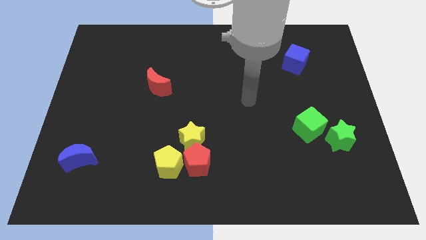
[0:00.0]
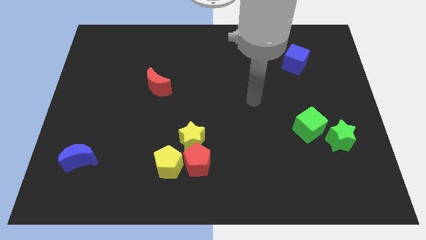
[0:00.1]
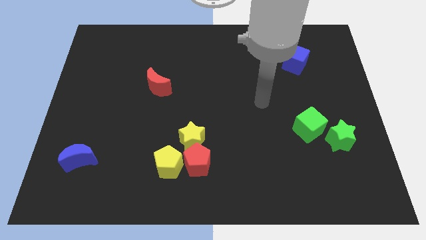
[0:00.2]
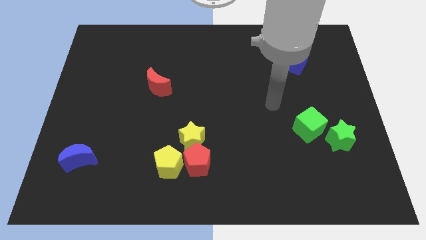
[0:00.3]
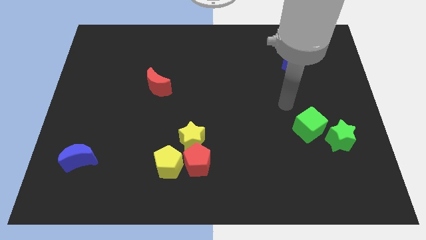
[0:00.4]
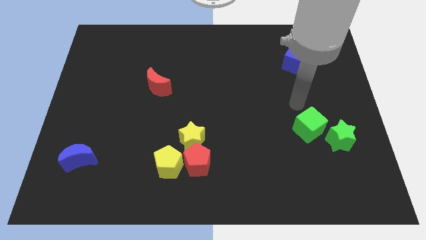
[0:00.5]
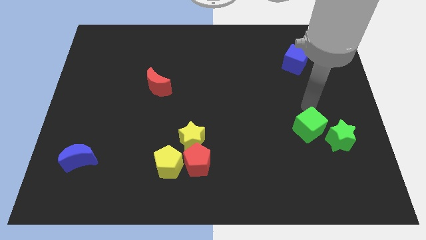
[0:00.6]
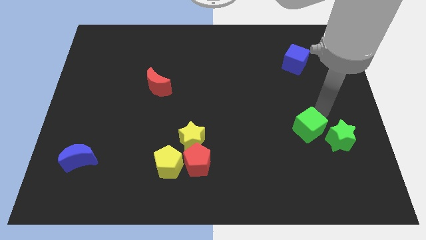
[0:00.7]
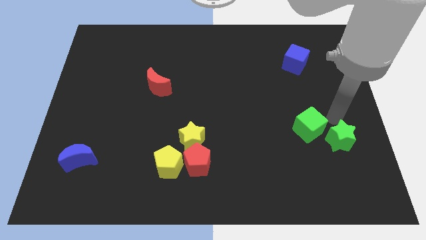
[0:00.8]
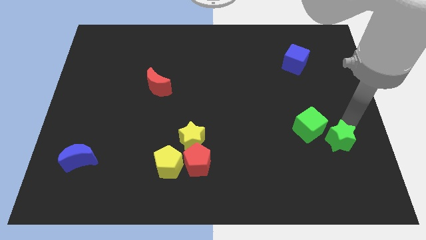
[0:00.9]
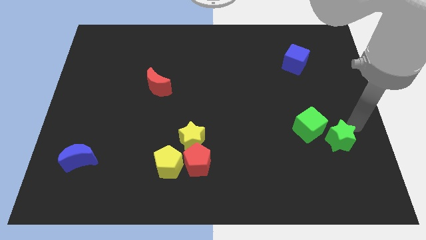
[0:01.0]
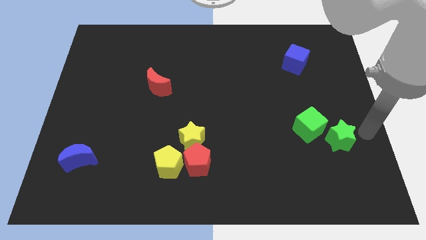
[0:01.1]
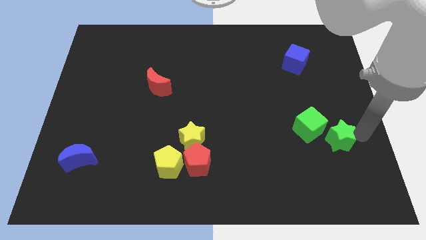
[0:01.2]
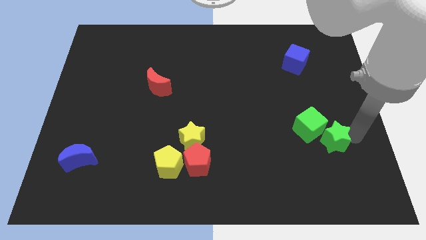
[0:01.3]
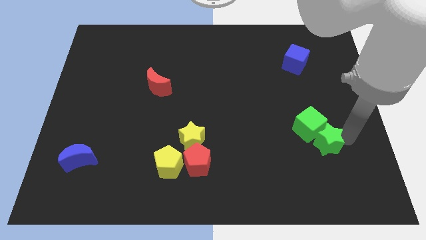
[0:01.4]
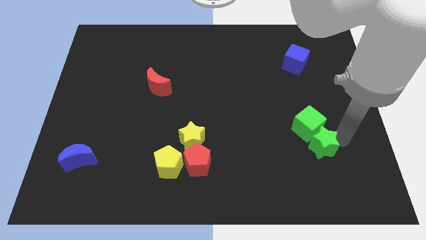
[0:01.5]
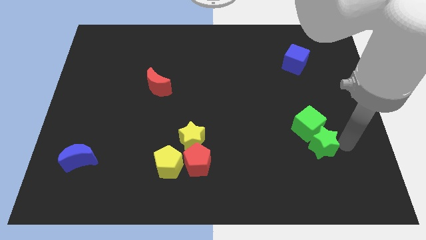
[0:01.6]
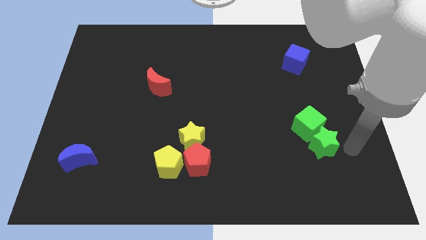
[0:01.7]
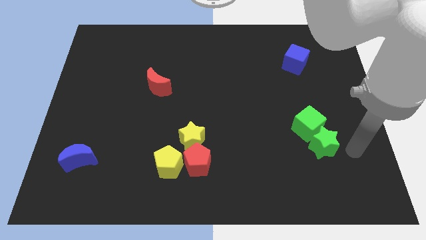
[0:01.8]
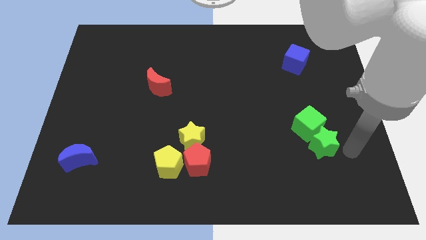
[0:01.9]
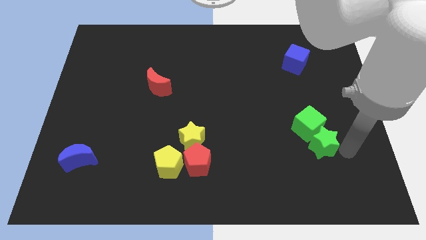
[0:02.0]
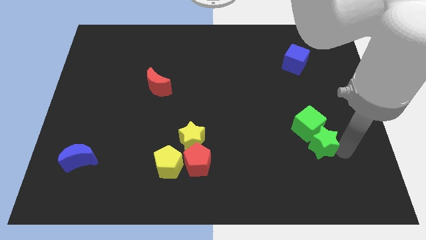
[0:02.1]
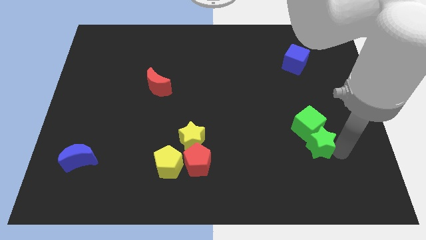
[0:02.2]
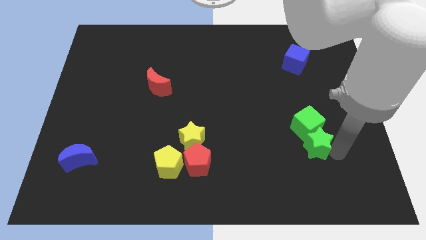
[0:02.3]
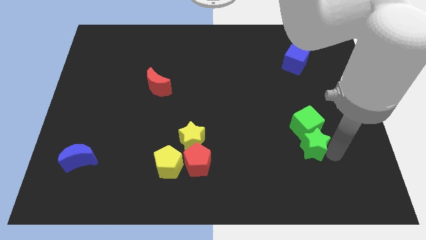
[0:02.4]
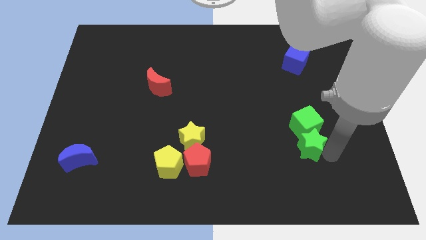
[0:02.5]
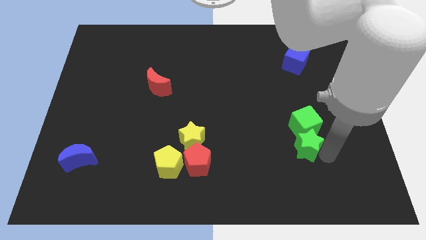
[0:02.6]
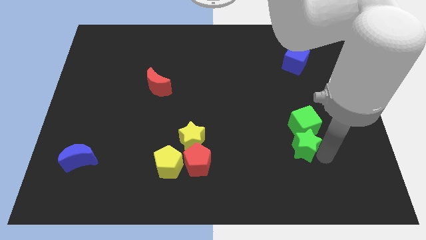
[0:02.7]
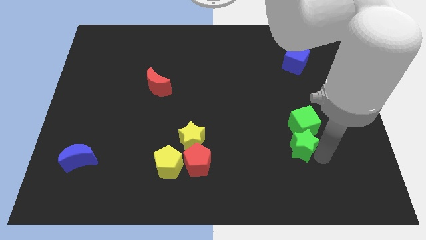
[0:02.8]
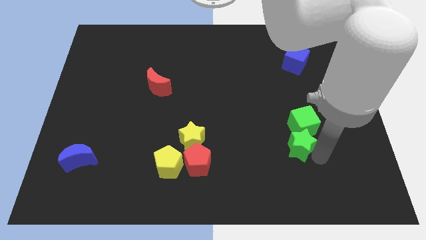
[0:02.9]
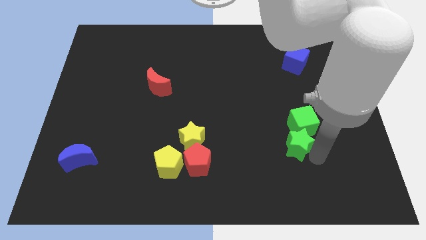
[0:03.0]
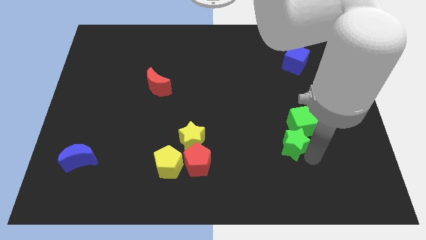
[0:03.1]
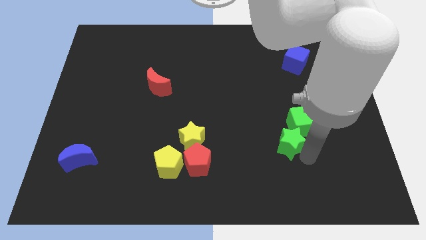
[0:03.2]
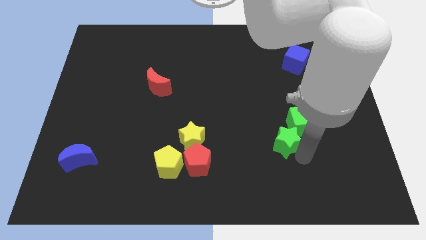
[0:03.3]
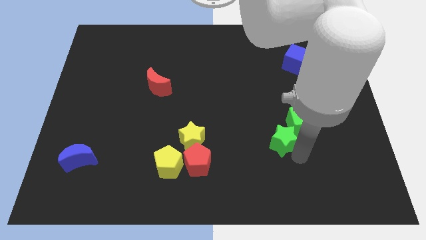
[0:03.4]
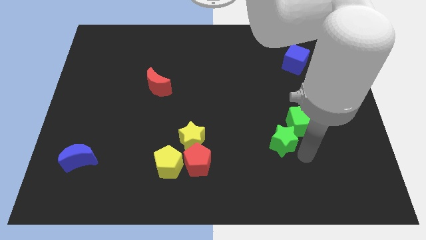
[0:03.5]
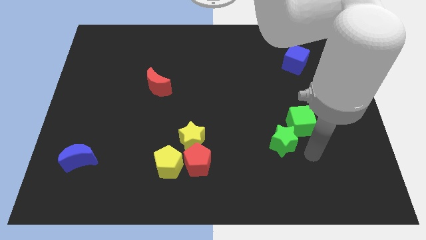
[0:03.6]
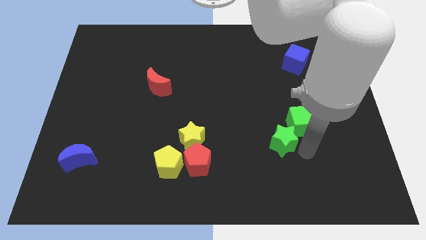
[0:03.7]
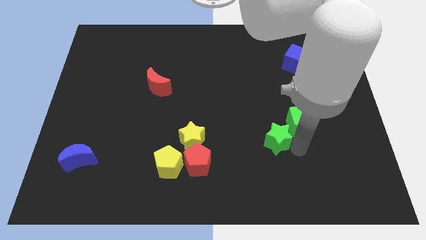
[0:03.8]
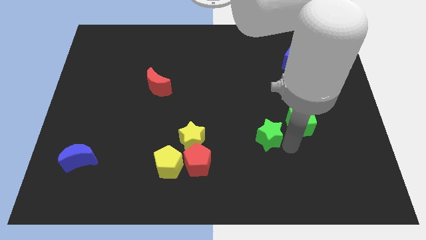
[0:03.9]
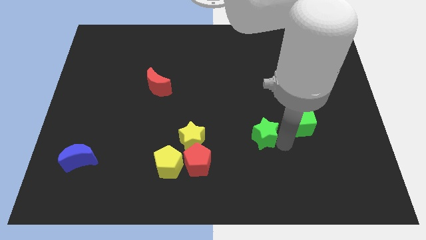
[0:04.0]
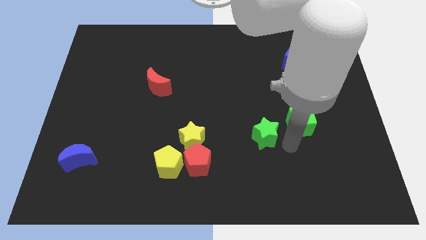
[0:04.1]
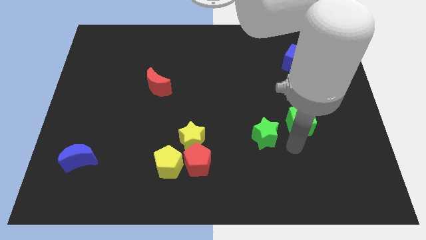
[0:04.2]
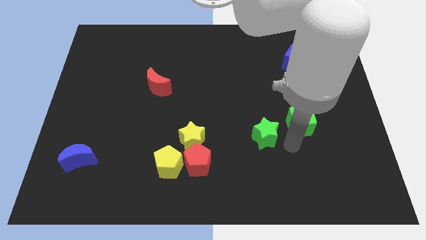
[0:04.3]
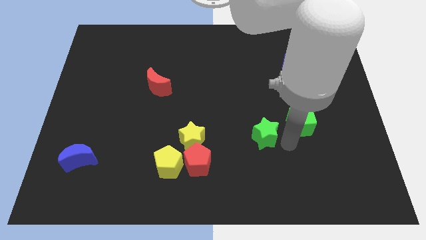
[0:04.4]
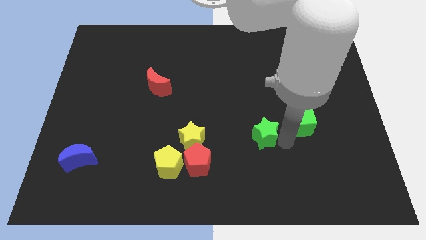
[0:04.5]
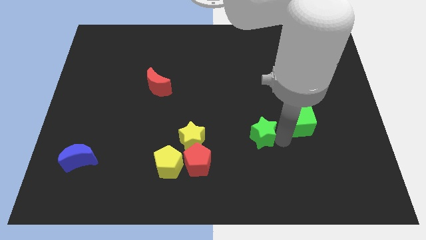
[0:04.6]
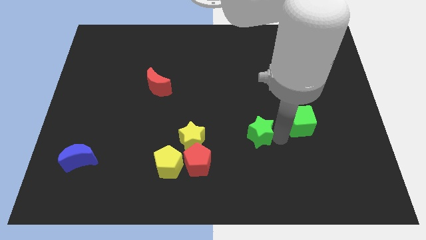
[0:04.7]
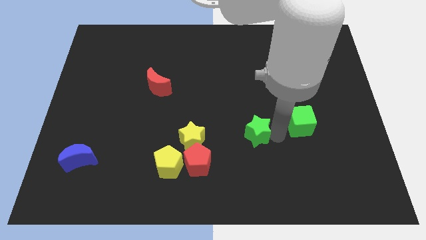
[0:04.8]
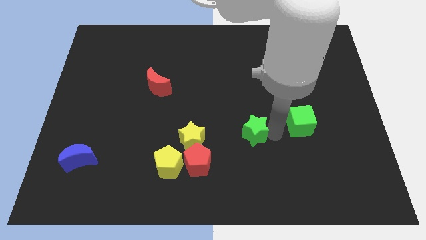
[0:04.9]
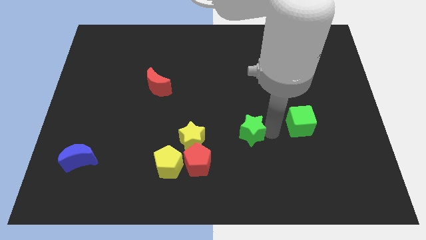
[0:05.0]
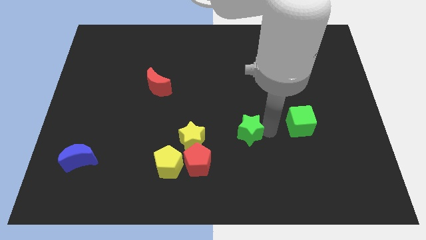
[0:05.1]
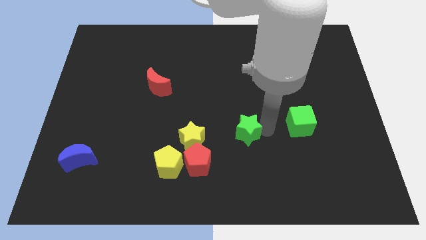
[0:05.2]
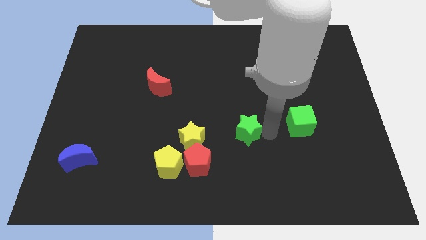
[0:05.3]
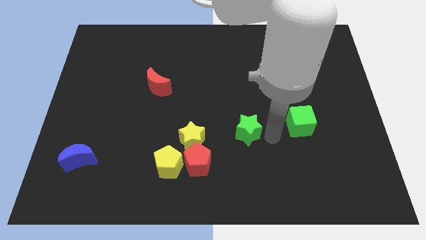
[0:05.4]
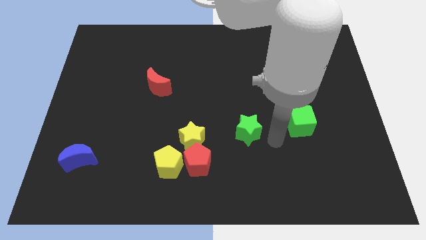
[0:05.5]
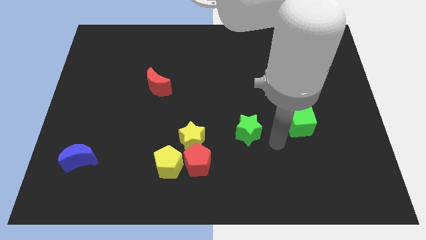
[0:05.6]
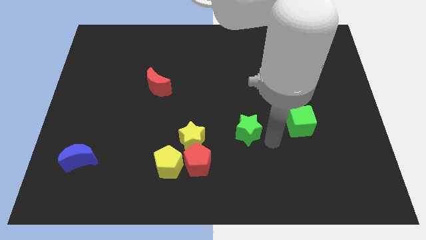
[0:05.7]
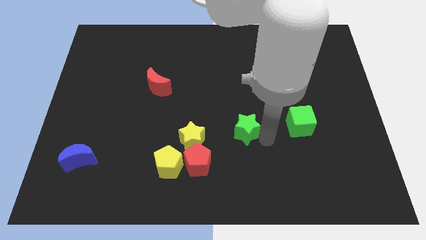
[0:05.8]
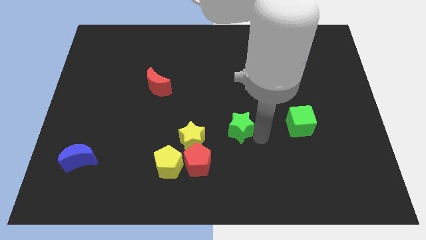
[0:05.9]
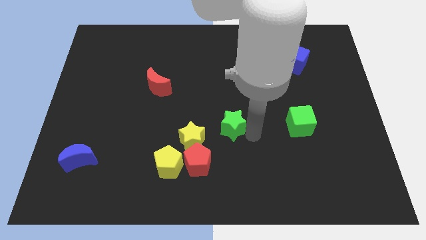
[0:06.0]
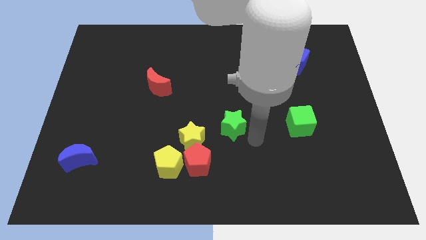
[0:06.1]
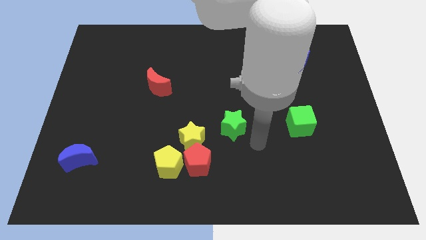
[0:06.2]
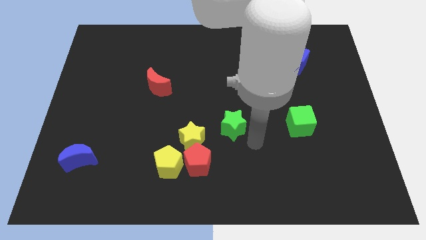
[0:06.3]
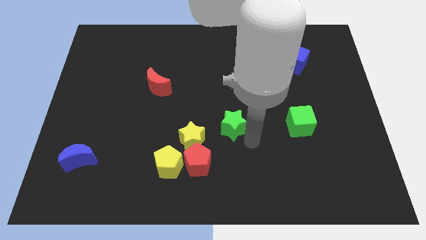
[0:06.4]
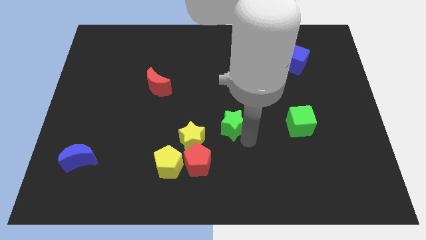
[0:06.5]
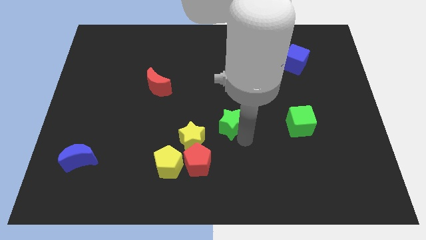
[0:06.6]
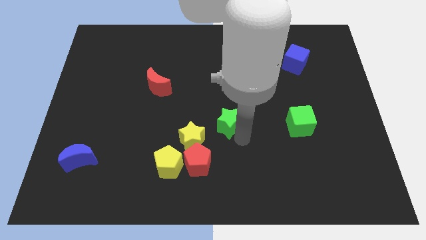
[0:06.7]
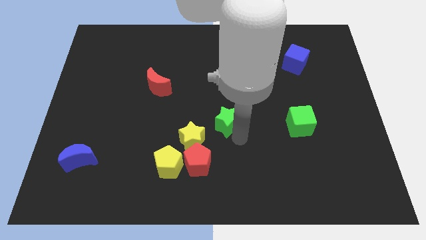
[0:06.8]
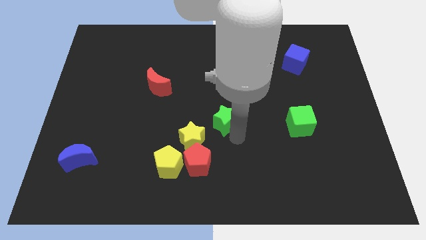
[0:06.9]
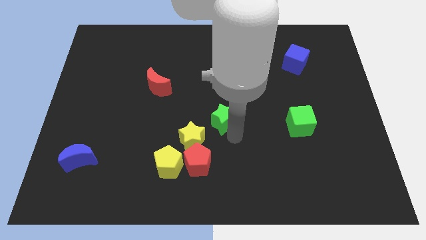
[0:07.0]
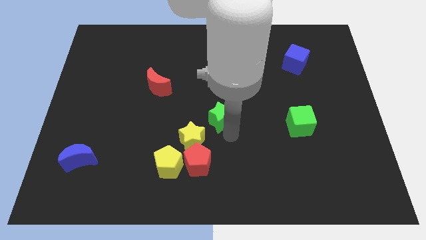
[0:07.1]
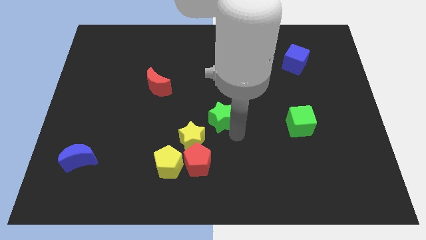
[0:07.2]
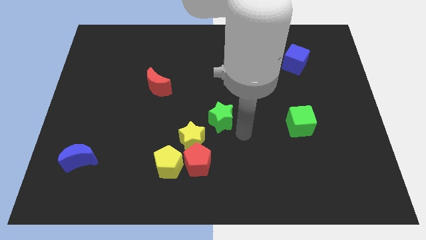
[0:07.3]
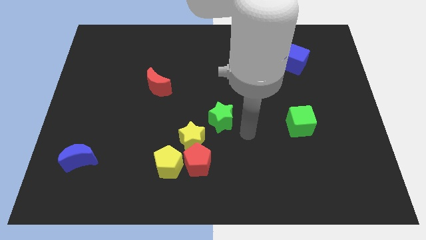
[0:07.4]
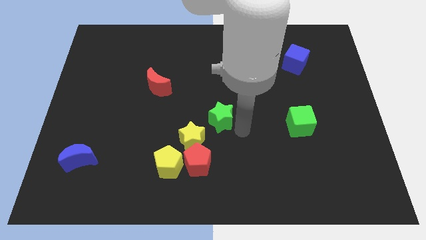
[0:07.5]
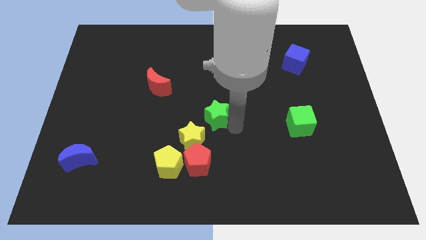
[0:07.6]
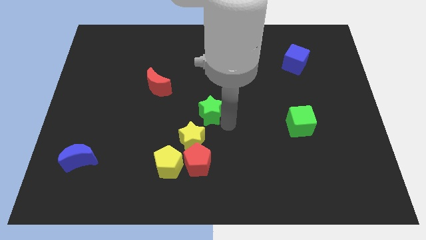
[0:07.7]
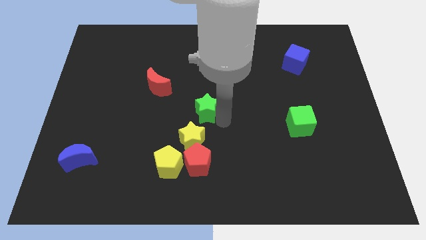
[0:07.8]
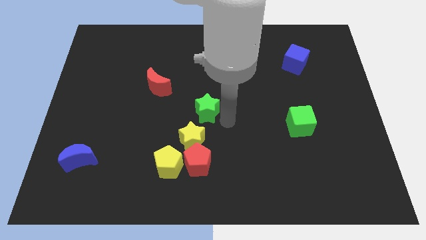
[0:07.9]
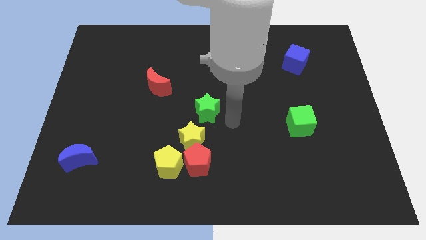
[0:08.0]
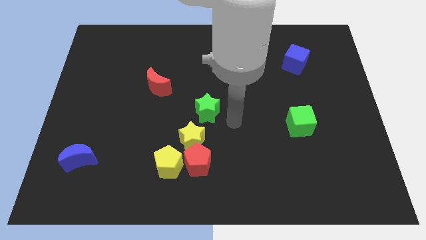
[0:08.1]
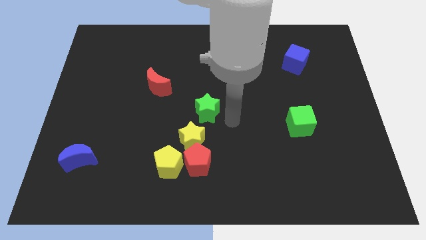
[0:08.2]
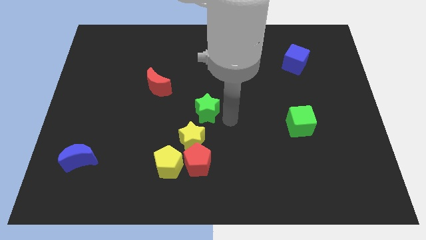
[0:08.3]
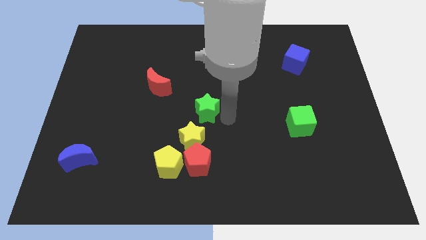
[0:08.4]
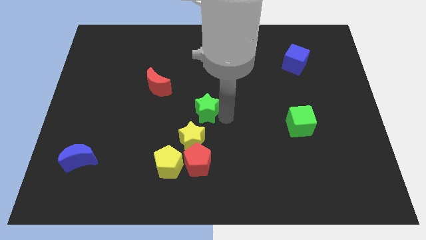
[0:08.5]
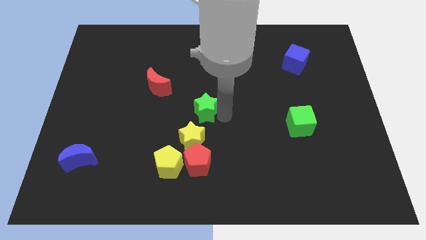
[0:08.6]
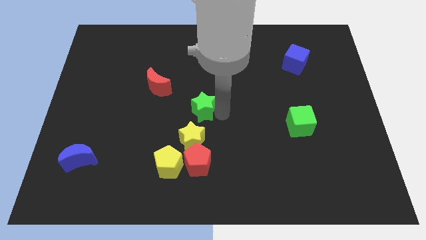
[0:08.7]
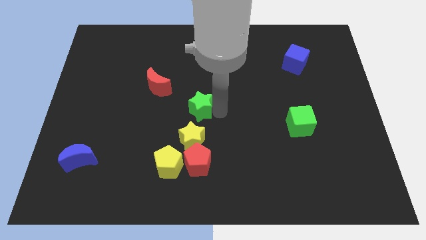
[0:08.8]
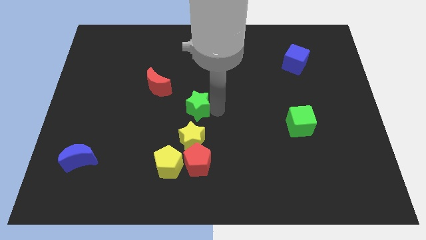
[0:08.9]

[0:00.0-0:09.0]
push the green star to the bottom right side of the red moon
